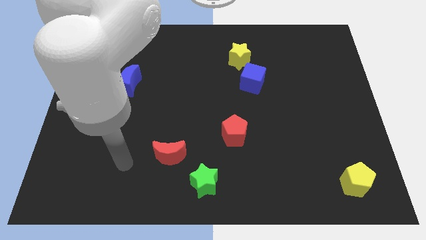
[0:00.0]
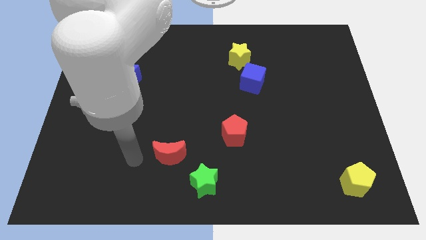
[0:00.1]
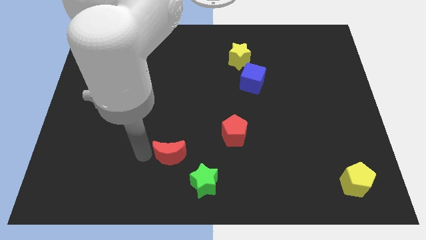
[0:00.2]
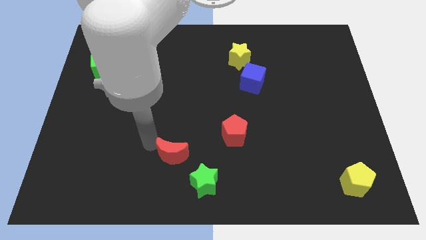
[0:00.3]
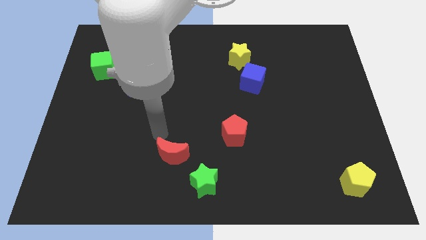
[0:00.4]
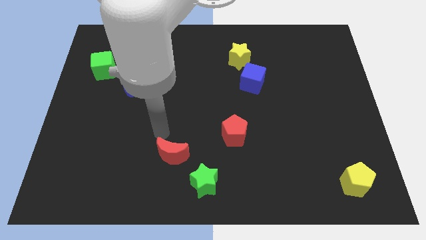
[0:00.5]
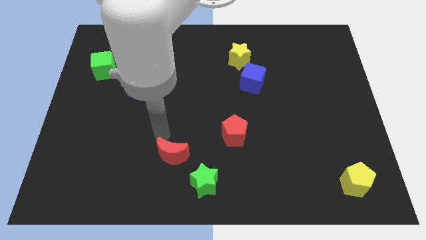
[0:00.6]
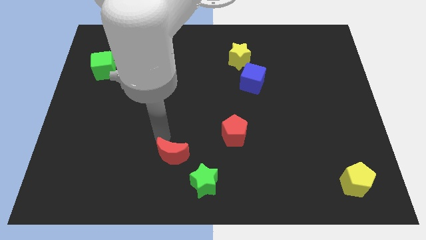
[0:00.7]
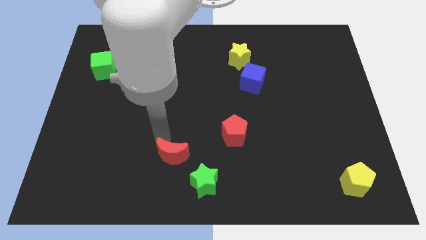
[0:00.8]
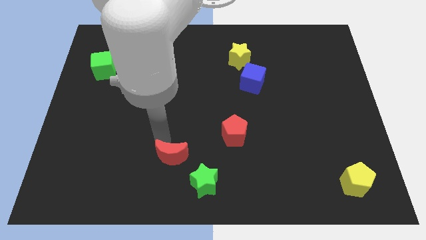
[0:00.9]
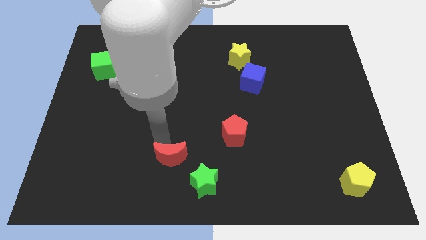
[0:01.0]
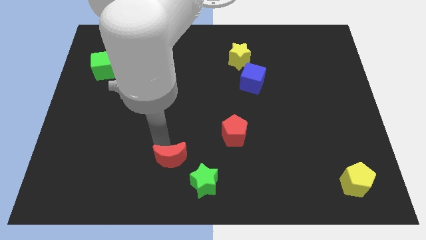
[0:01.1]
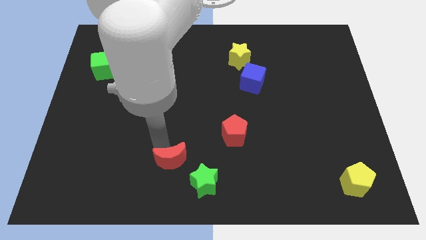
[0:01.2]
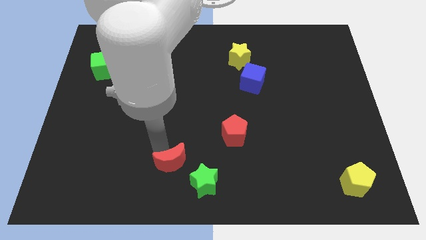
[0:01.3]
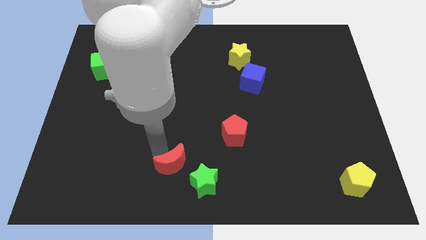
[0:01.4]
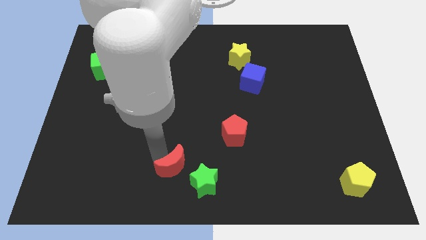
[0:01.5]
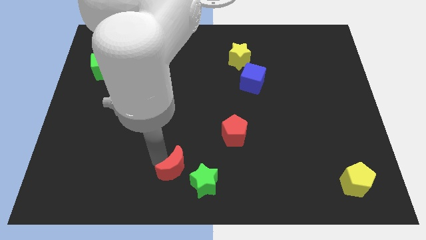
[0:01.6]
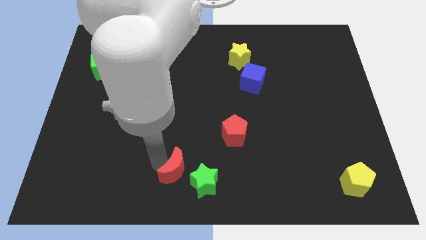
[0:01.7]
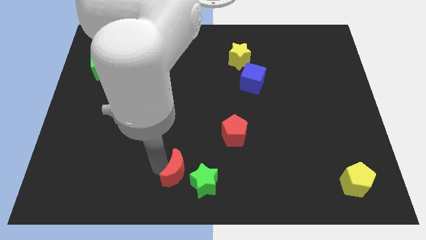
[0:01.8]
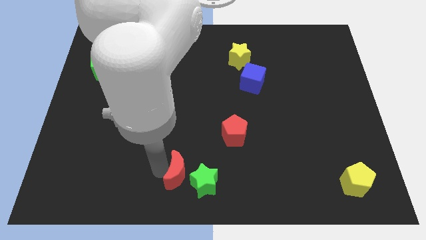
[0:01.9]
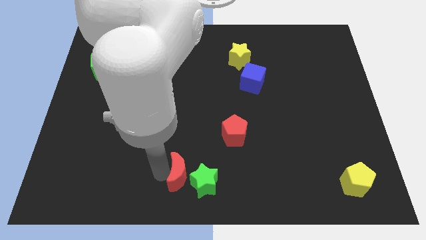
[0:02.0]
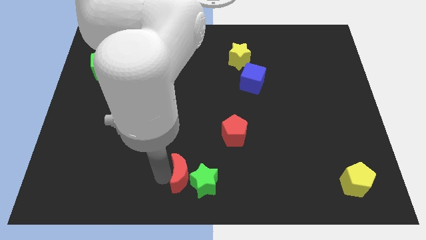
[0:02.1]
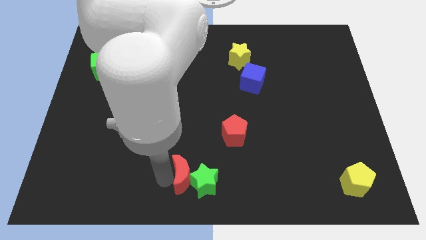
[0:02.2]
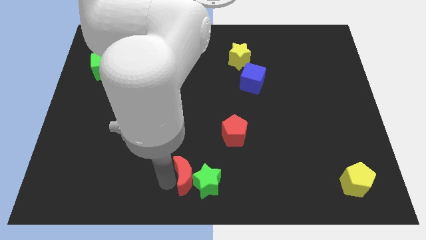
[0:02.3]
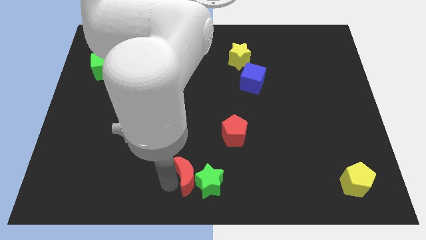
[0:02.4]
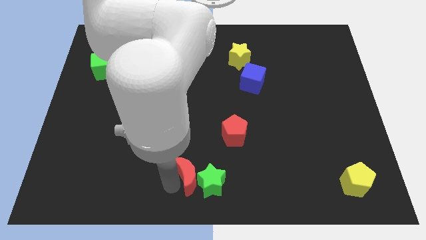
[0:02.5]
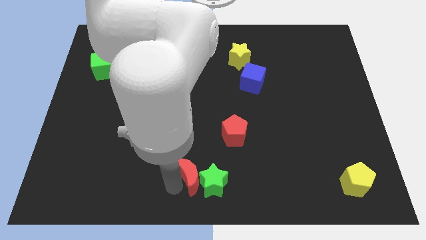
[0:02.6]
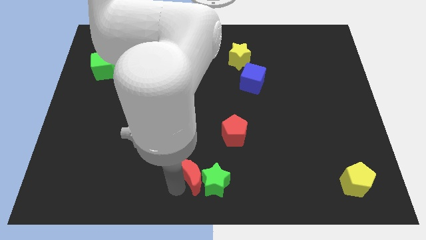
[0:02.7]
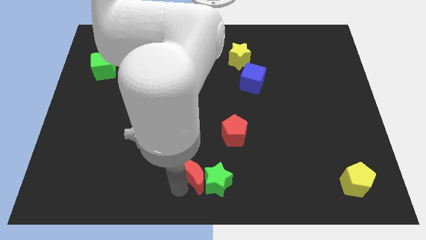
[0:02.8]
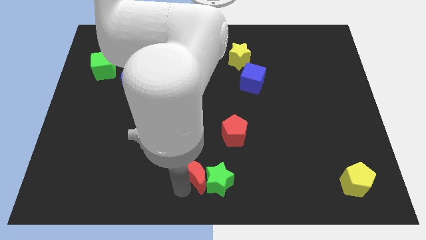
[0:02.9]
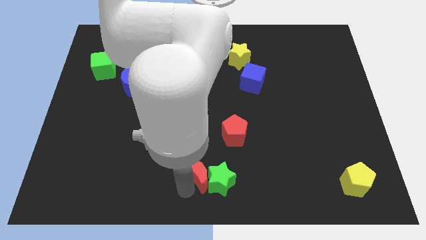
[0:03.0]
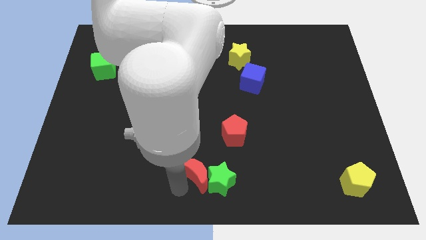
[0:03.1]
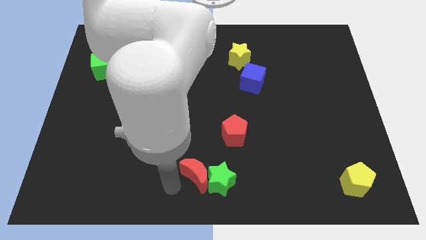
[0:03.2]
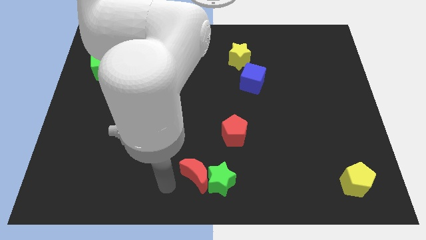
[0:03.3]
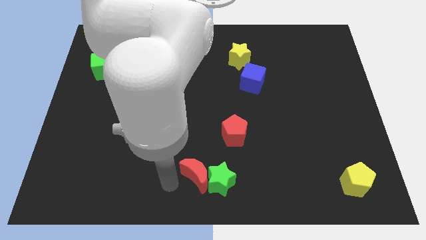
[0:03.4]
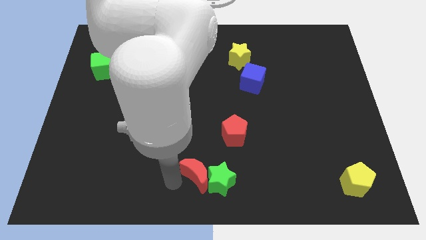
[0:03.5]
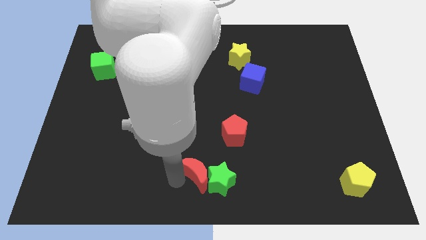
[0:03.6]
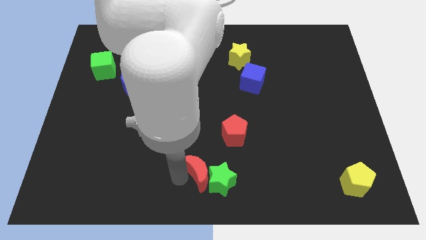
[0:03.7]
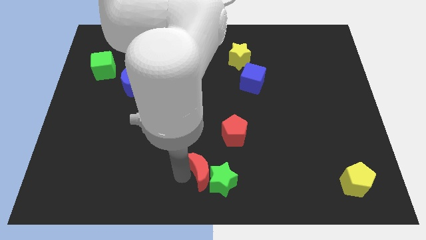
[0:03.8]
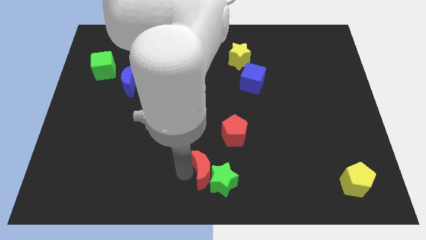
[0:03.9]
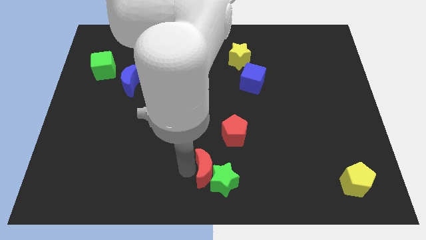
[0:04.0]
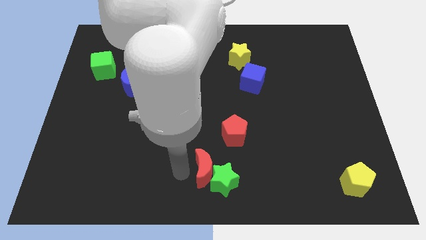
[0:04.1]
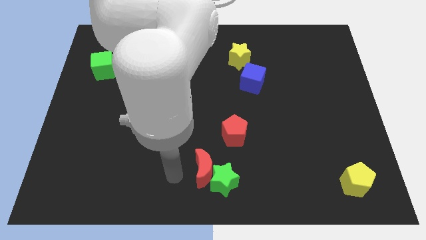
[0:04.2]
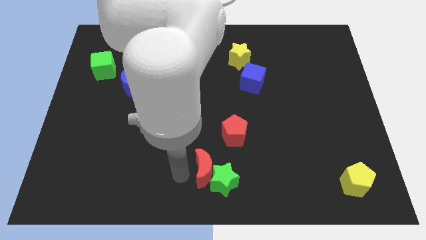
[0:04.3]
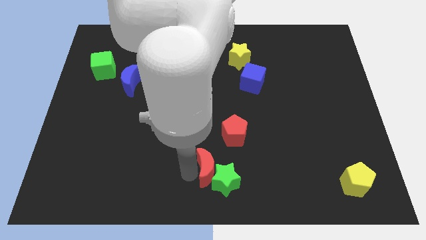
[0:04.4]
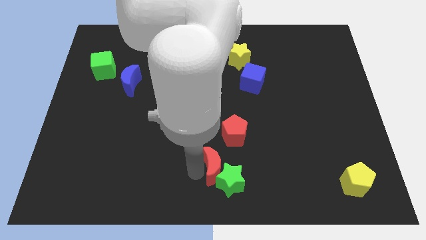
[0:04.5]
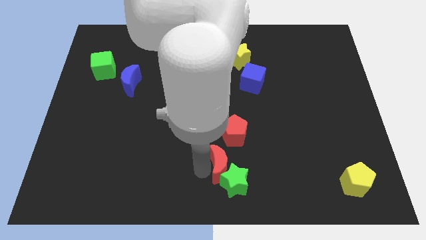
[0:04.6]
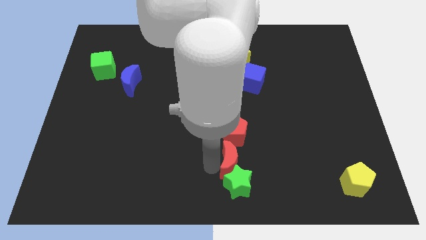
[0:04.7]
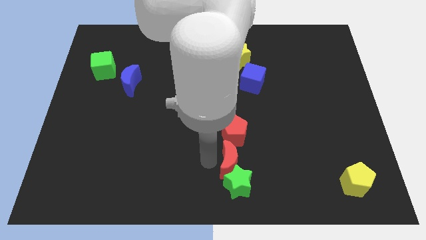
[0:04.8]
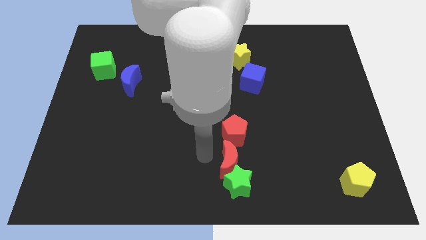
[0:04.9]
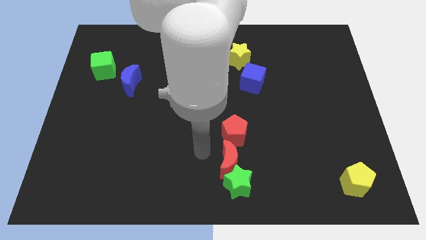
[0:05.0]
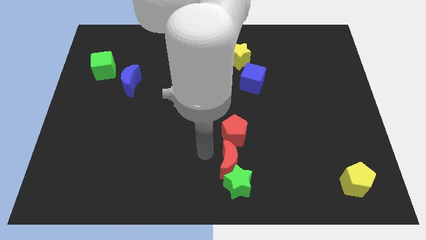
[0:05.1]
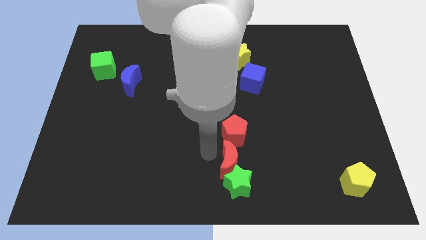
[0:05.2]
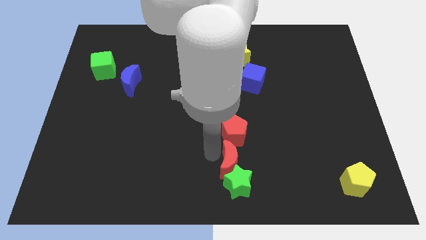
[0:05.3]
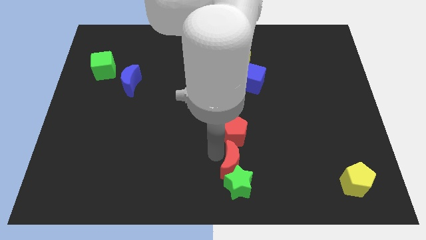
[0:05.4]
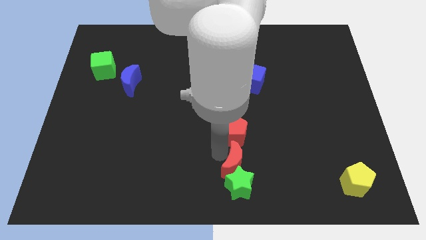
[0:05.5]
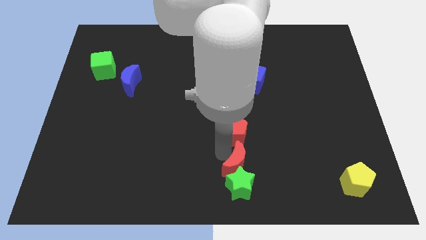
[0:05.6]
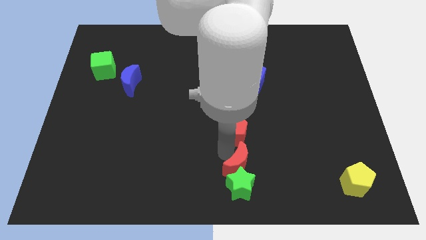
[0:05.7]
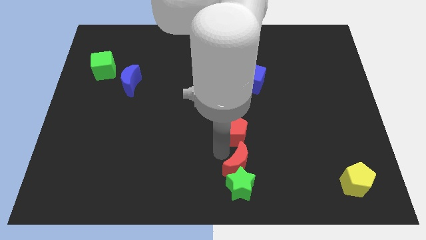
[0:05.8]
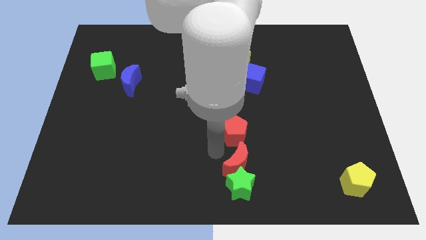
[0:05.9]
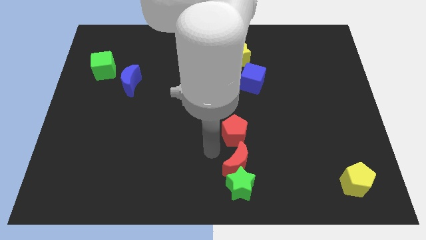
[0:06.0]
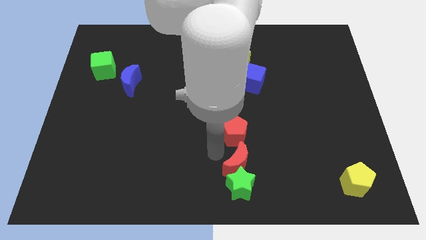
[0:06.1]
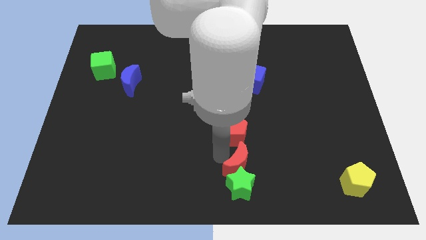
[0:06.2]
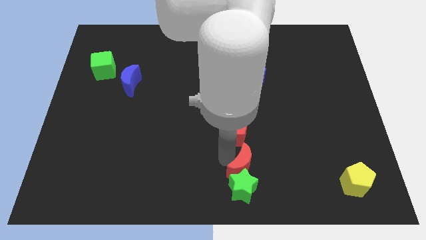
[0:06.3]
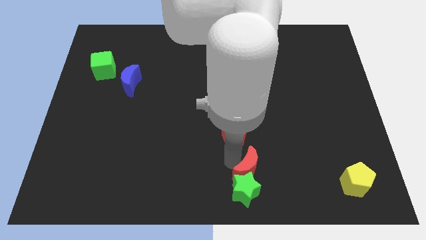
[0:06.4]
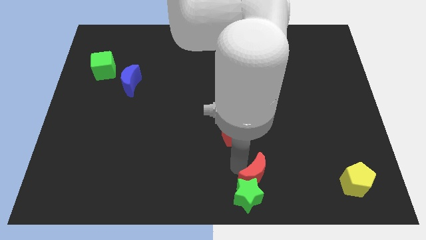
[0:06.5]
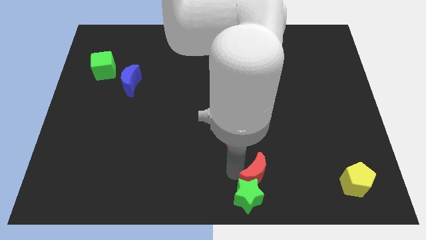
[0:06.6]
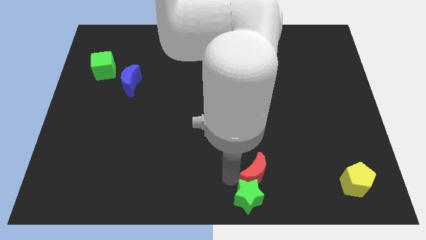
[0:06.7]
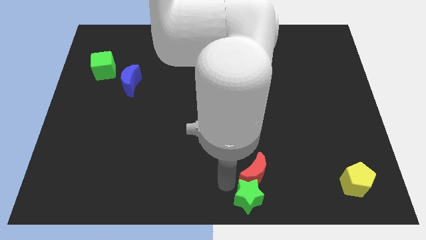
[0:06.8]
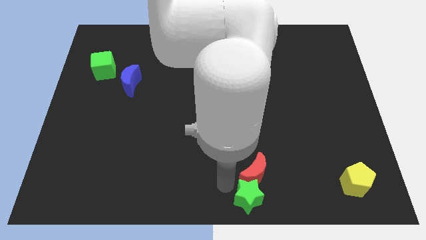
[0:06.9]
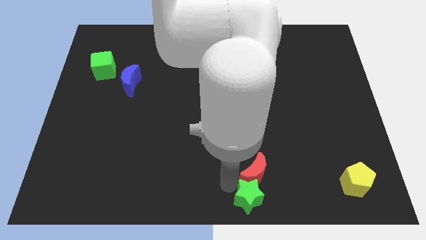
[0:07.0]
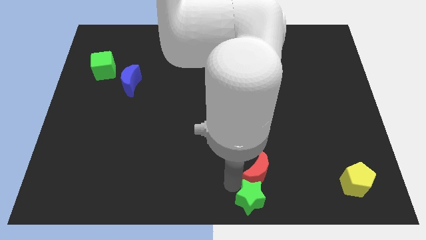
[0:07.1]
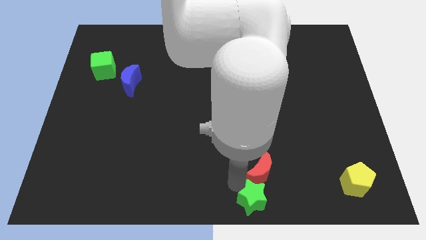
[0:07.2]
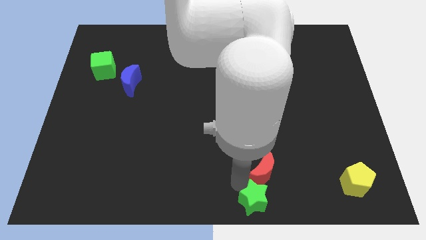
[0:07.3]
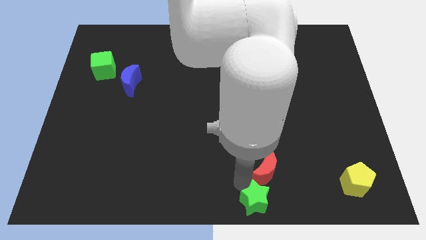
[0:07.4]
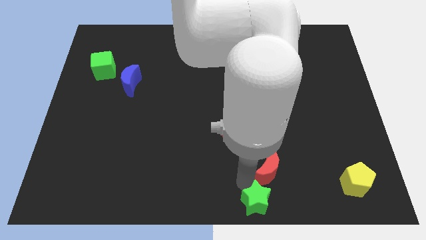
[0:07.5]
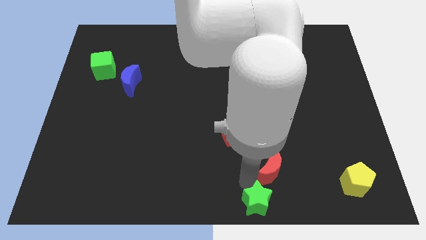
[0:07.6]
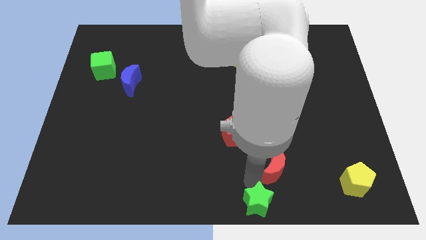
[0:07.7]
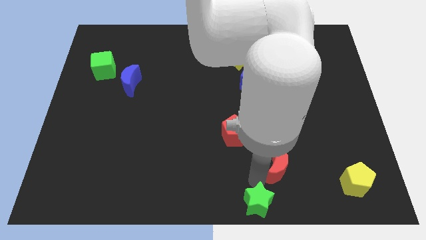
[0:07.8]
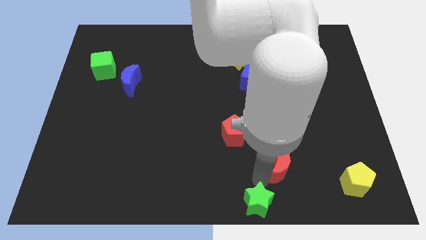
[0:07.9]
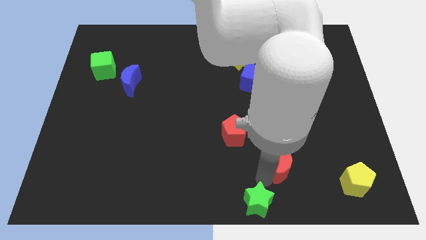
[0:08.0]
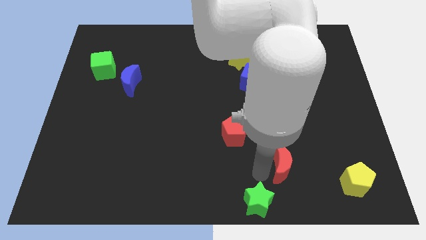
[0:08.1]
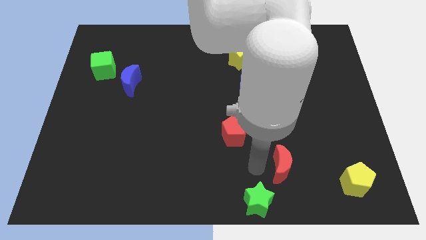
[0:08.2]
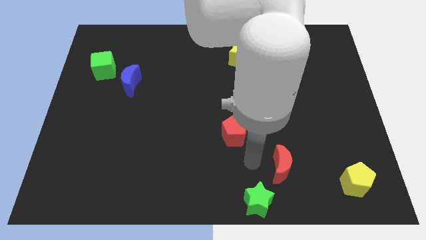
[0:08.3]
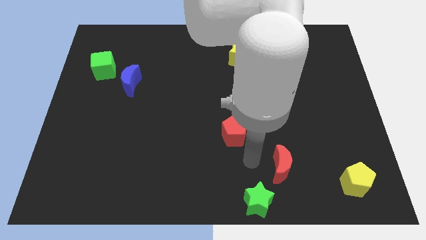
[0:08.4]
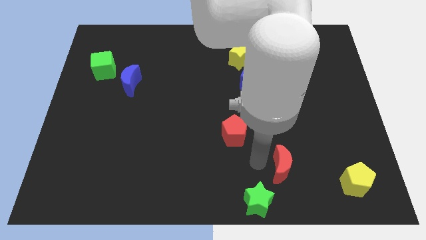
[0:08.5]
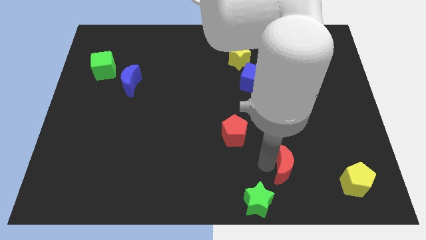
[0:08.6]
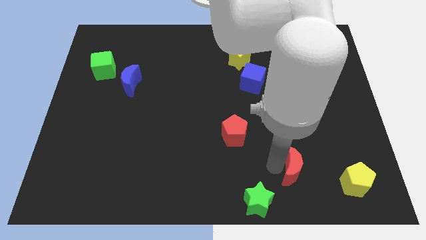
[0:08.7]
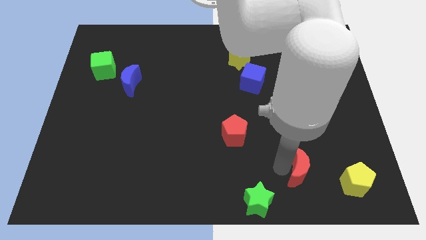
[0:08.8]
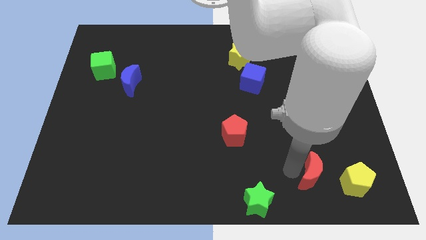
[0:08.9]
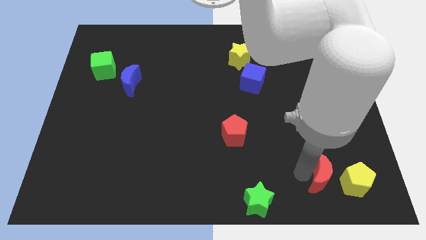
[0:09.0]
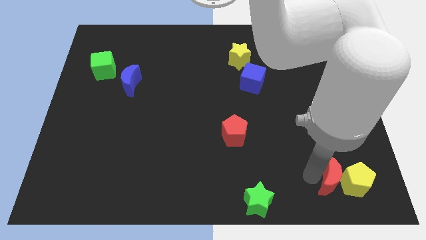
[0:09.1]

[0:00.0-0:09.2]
slide the red moon close to the yellow pentagon
